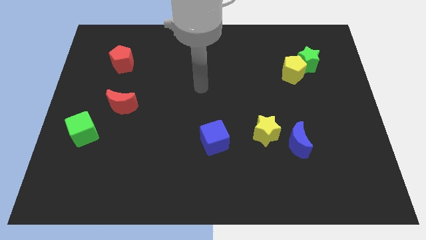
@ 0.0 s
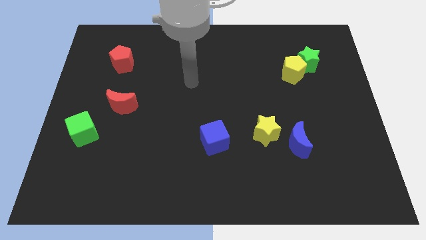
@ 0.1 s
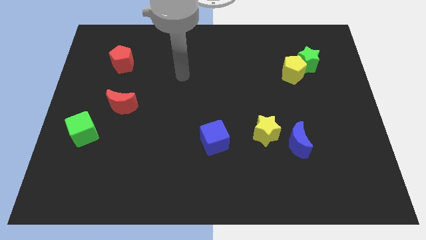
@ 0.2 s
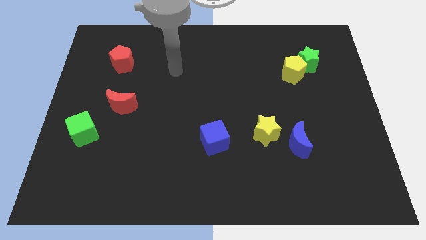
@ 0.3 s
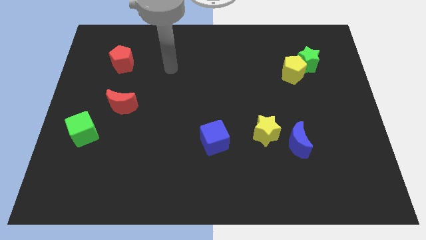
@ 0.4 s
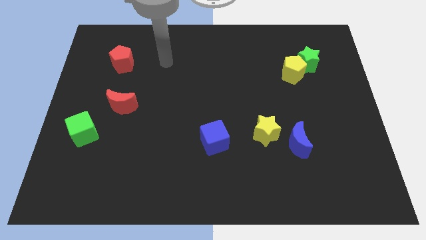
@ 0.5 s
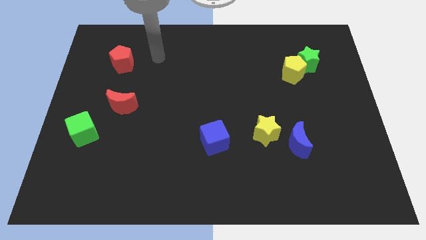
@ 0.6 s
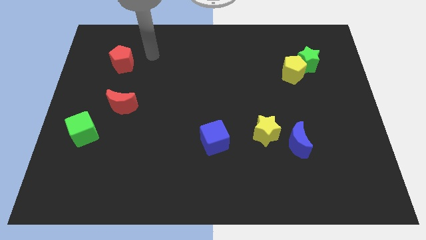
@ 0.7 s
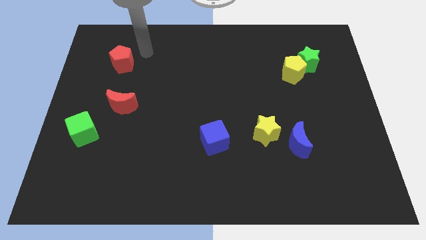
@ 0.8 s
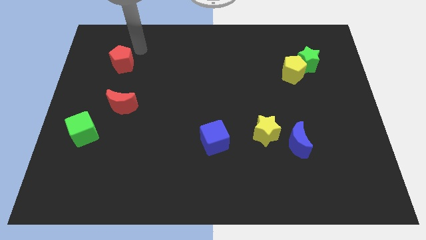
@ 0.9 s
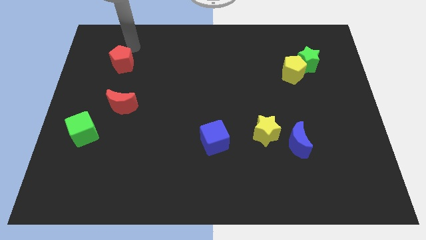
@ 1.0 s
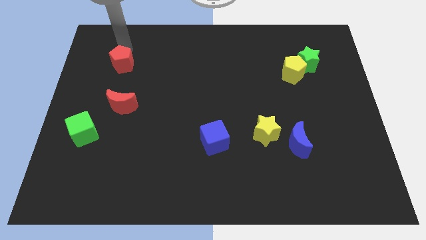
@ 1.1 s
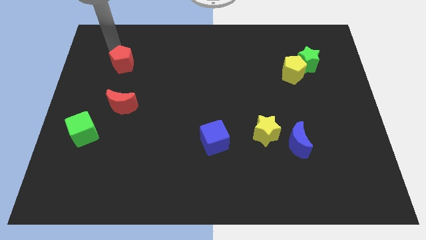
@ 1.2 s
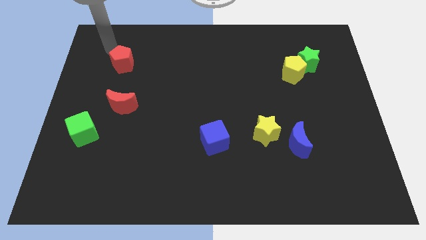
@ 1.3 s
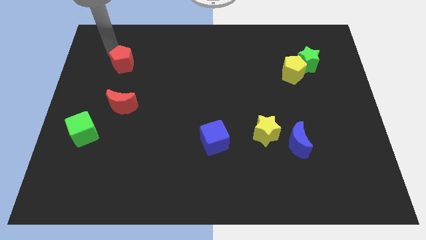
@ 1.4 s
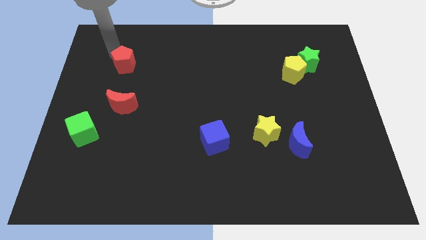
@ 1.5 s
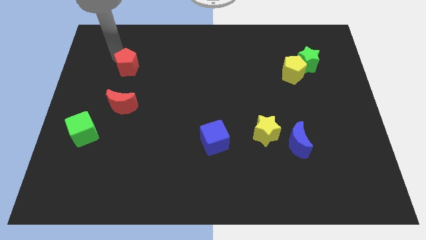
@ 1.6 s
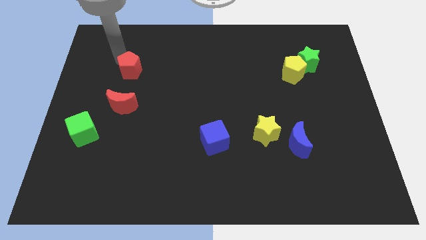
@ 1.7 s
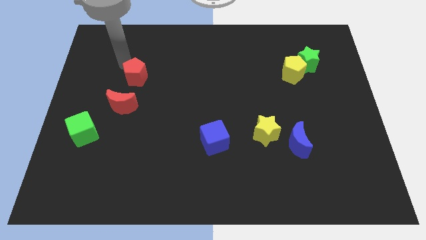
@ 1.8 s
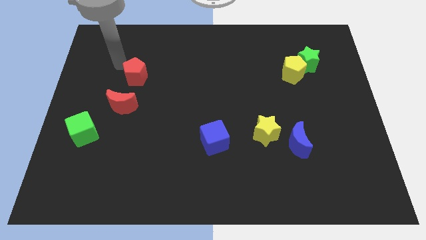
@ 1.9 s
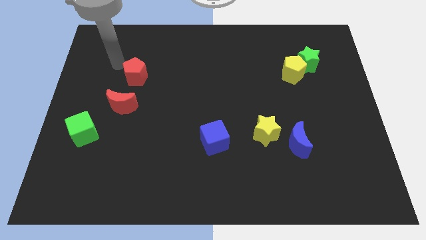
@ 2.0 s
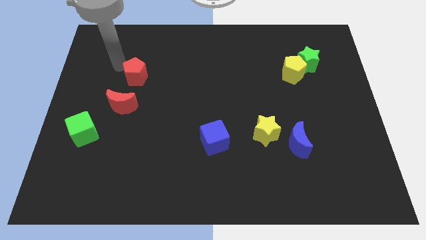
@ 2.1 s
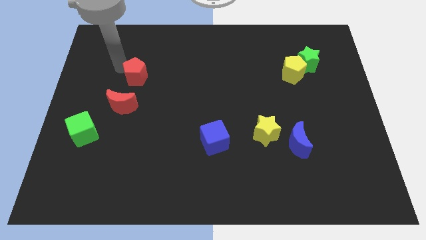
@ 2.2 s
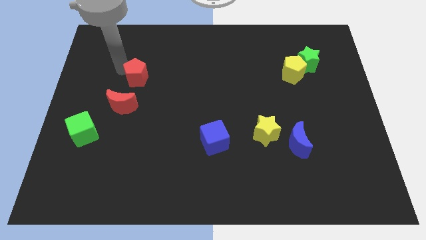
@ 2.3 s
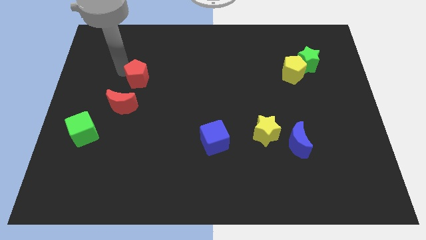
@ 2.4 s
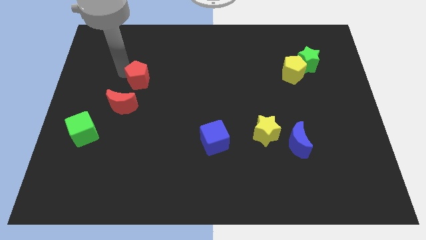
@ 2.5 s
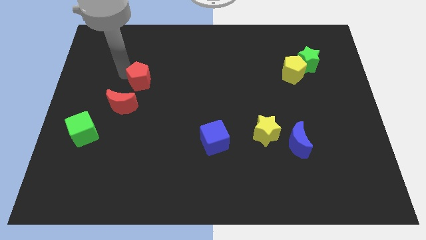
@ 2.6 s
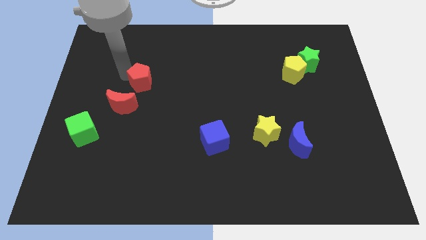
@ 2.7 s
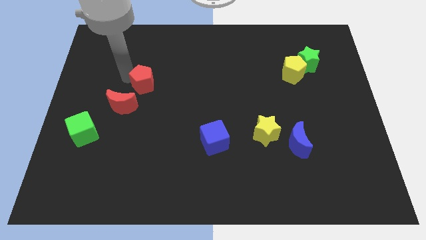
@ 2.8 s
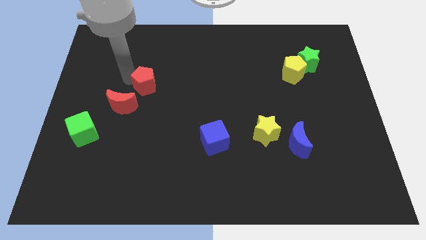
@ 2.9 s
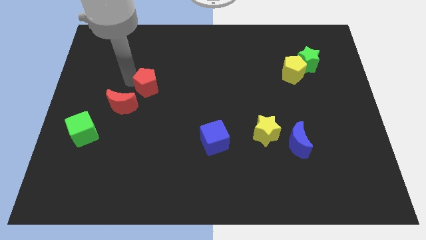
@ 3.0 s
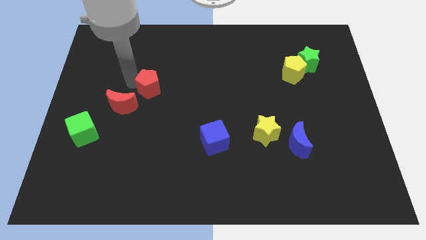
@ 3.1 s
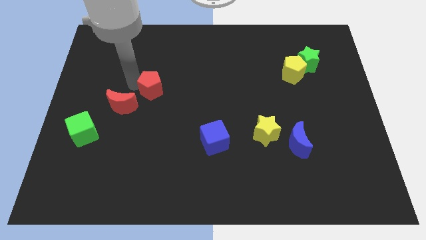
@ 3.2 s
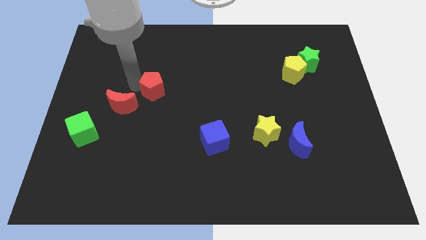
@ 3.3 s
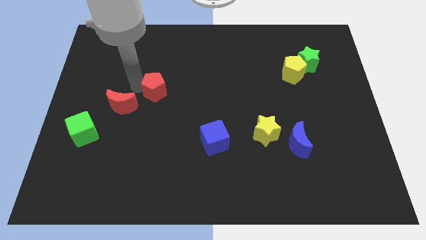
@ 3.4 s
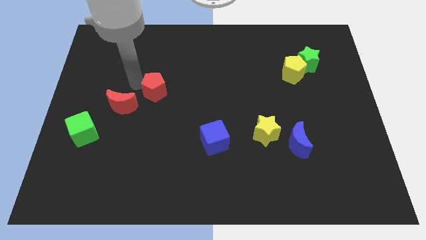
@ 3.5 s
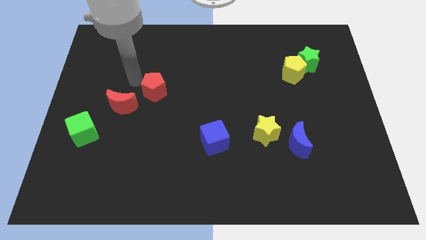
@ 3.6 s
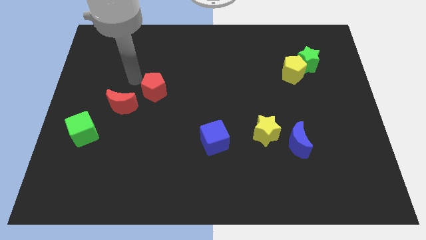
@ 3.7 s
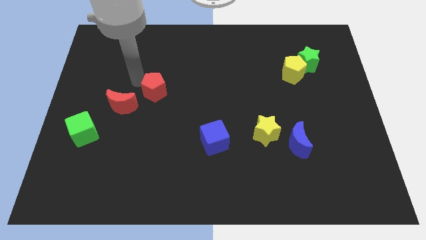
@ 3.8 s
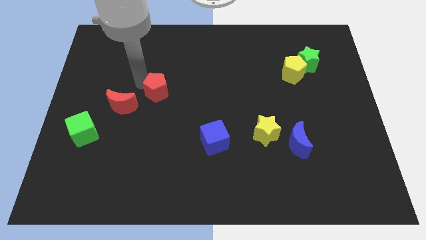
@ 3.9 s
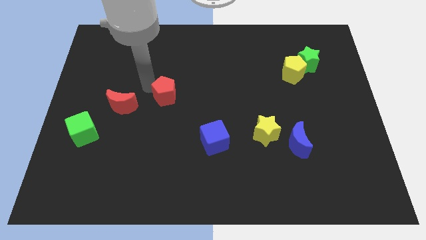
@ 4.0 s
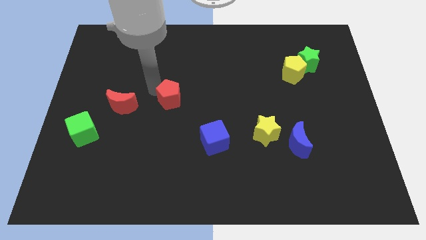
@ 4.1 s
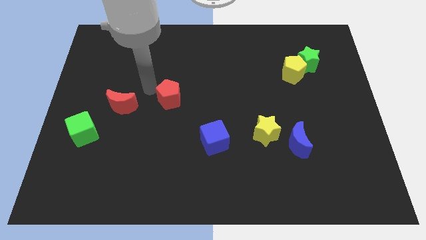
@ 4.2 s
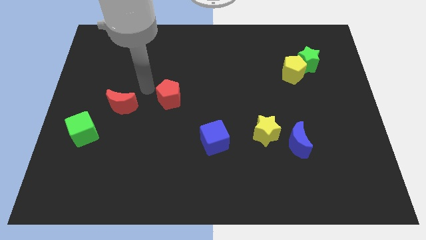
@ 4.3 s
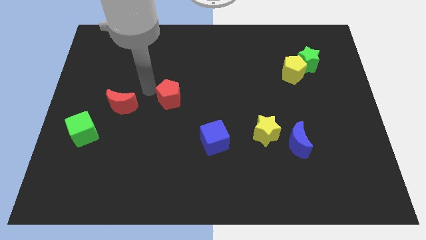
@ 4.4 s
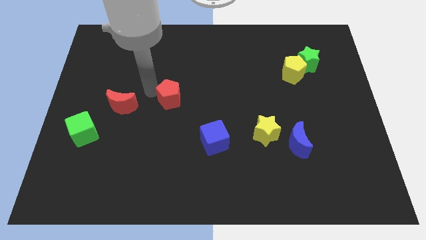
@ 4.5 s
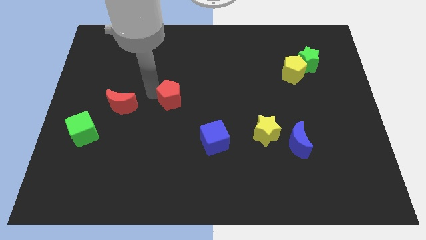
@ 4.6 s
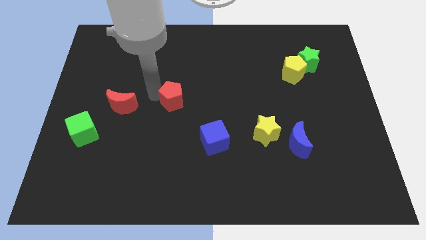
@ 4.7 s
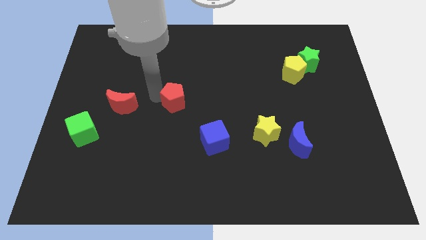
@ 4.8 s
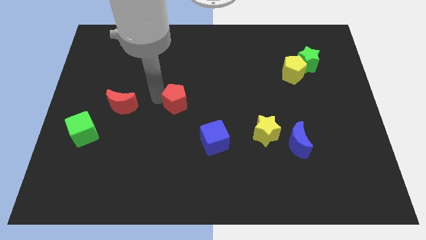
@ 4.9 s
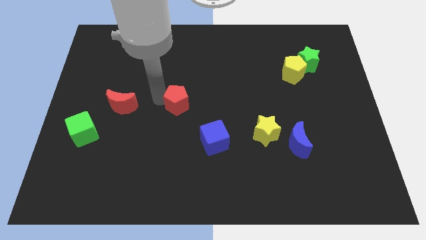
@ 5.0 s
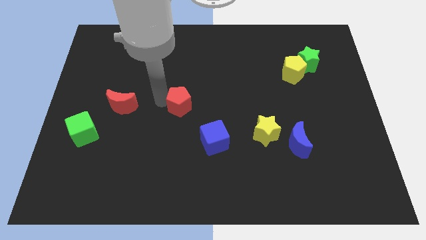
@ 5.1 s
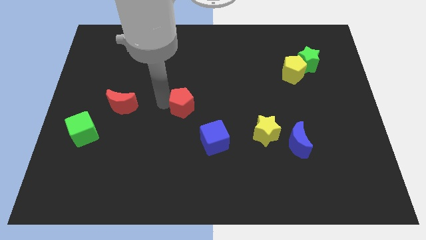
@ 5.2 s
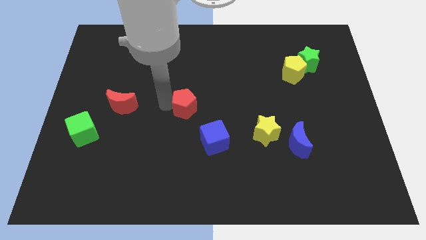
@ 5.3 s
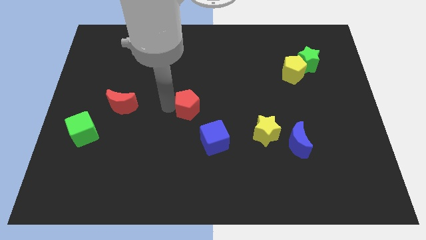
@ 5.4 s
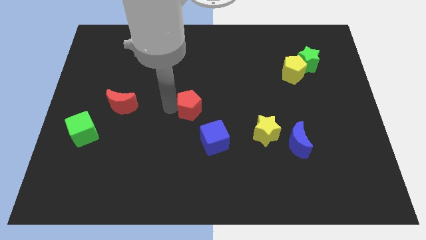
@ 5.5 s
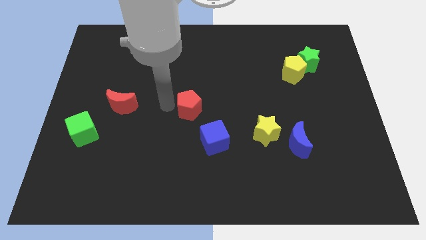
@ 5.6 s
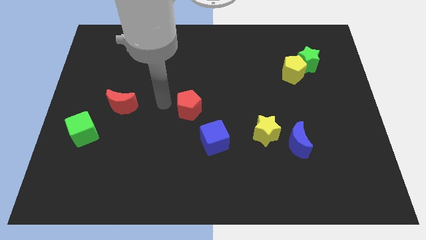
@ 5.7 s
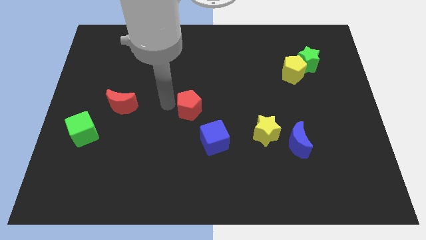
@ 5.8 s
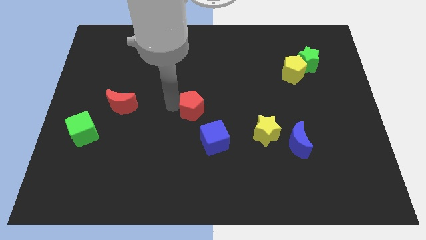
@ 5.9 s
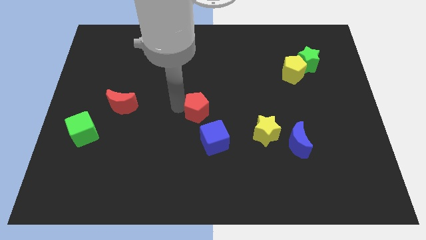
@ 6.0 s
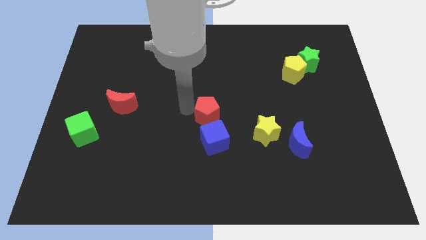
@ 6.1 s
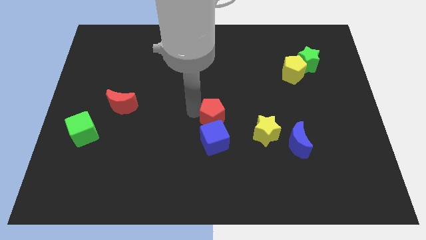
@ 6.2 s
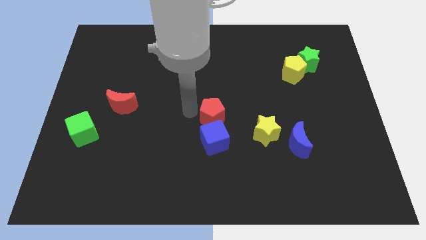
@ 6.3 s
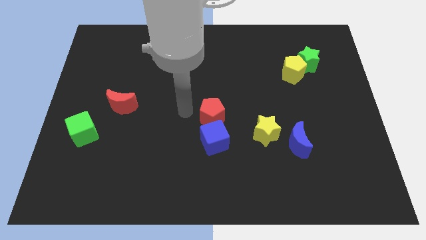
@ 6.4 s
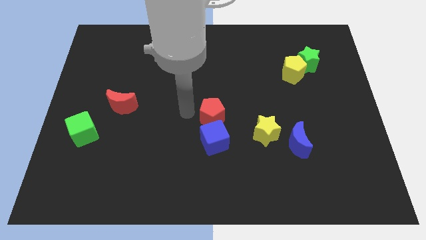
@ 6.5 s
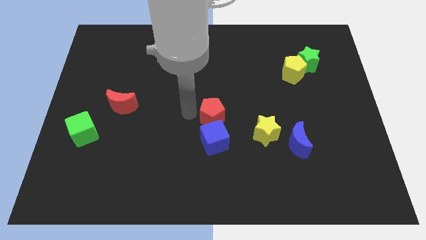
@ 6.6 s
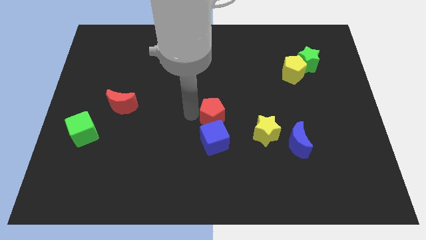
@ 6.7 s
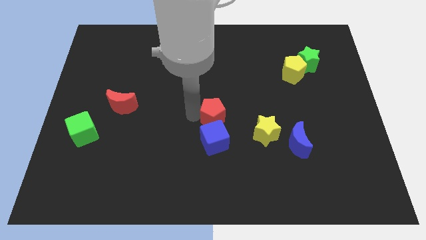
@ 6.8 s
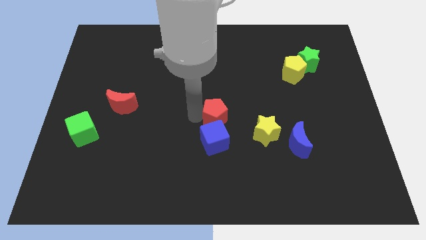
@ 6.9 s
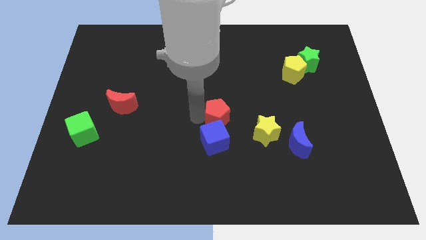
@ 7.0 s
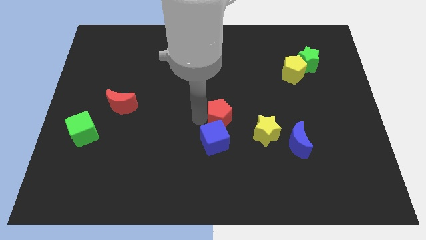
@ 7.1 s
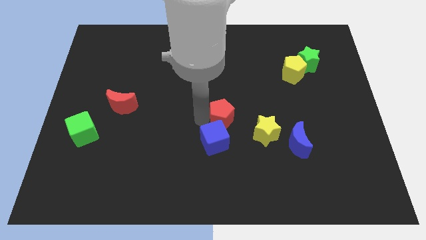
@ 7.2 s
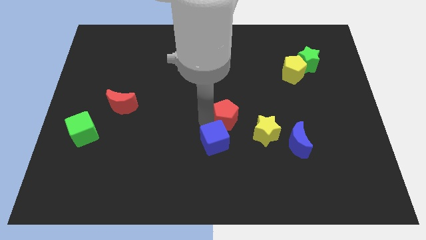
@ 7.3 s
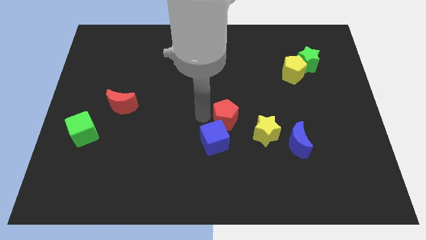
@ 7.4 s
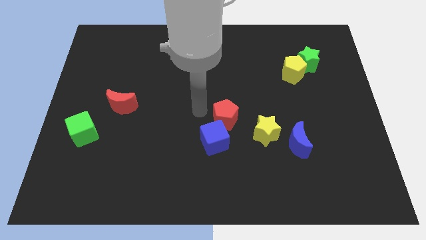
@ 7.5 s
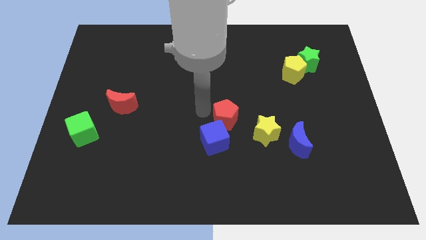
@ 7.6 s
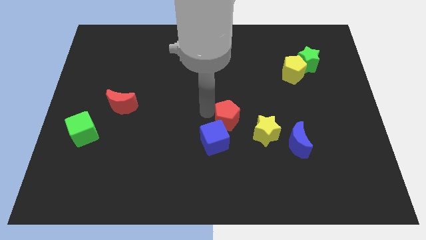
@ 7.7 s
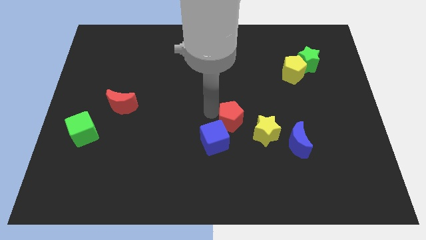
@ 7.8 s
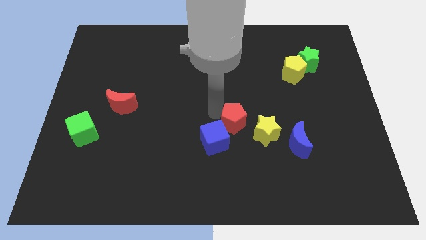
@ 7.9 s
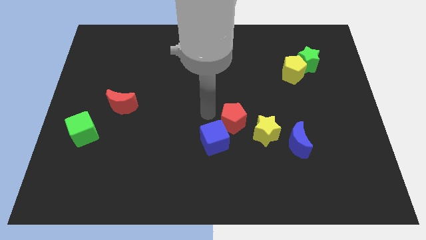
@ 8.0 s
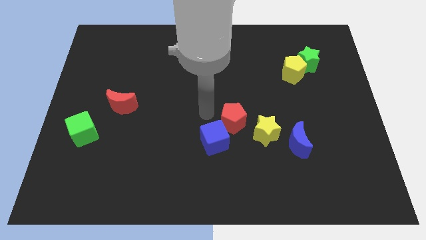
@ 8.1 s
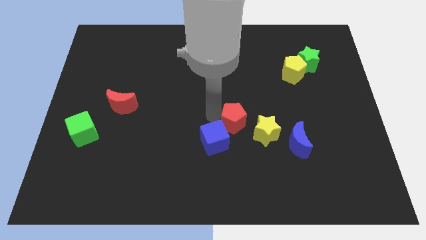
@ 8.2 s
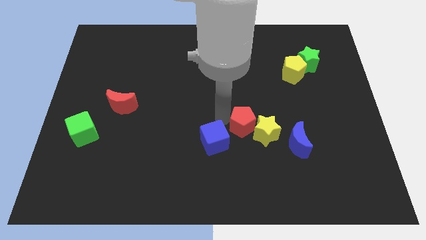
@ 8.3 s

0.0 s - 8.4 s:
push the red pentagon towards the yellow star
